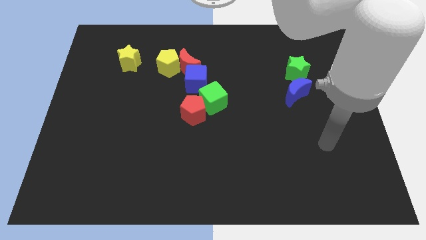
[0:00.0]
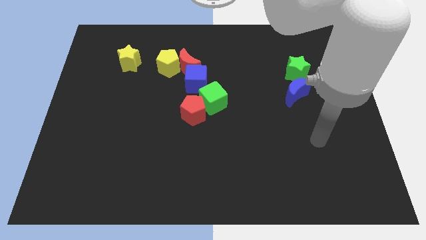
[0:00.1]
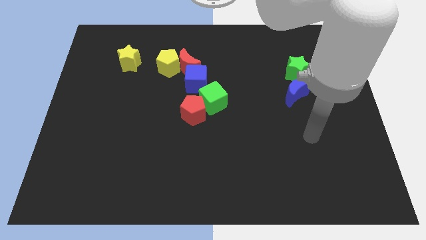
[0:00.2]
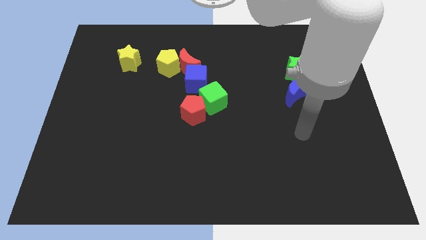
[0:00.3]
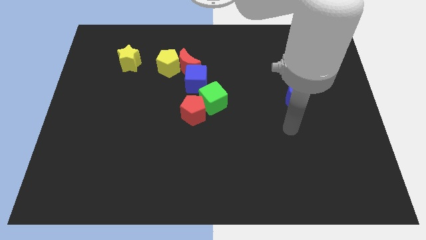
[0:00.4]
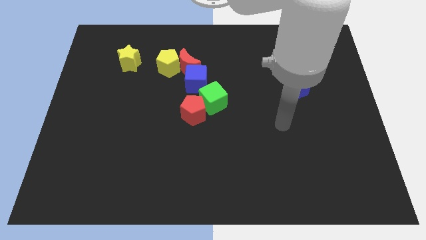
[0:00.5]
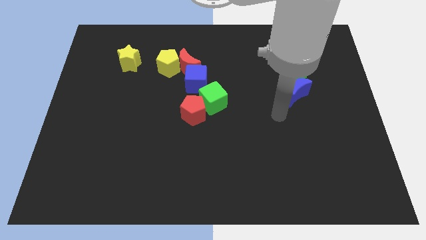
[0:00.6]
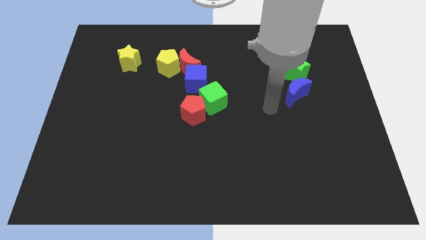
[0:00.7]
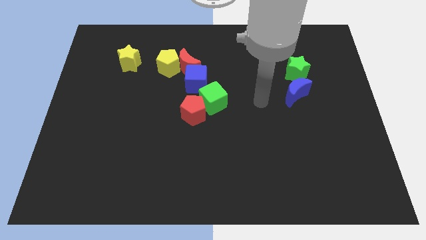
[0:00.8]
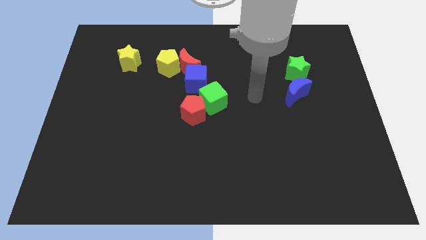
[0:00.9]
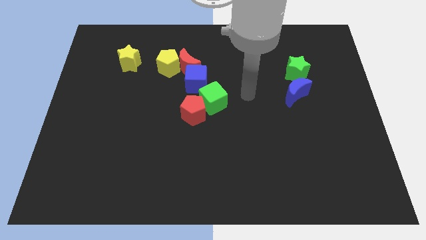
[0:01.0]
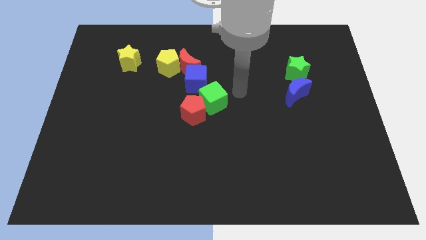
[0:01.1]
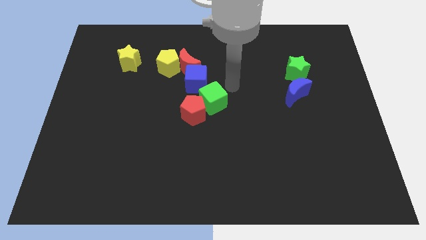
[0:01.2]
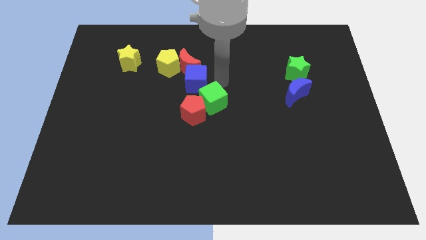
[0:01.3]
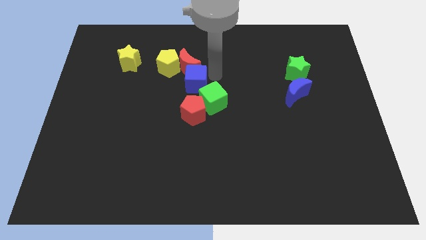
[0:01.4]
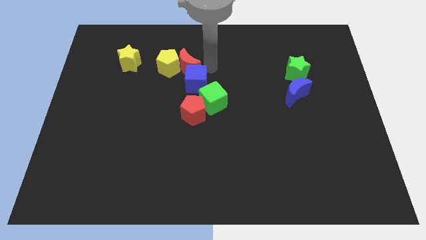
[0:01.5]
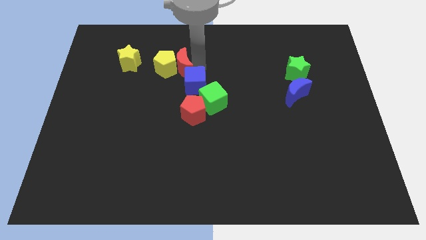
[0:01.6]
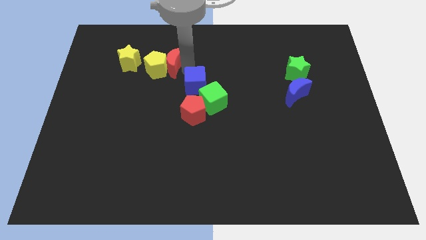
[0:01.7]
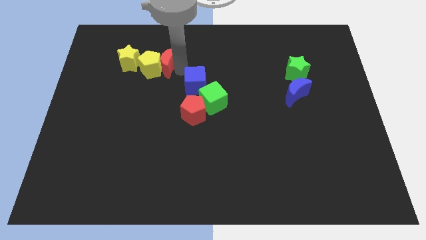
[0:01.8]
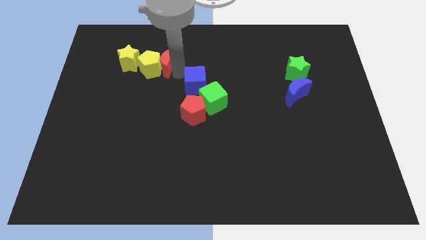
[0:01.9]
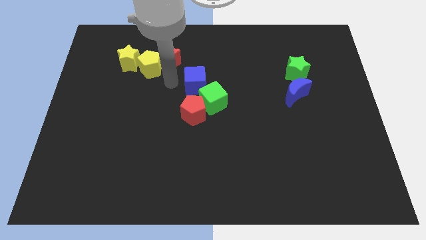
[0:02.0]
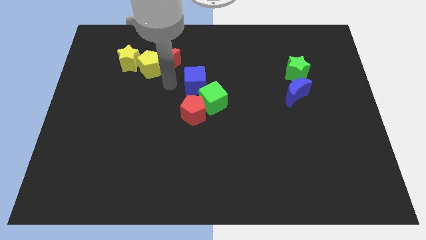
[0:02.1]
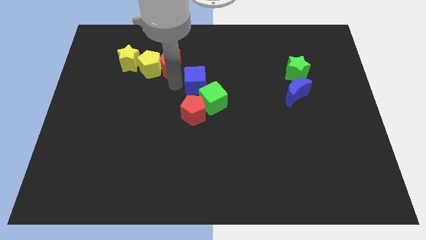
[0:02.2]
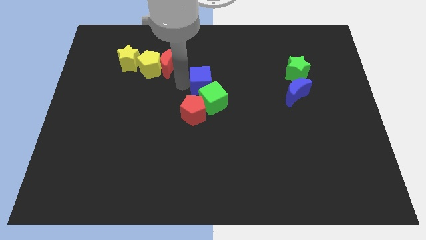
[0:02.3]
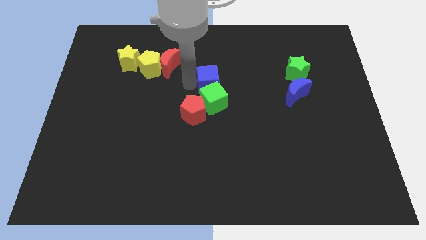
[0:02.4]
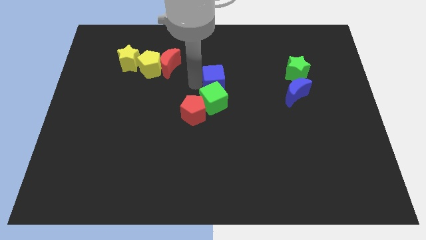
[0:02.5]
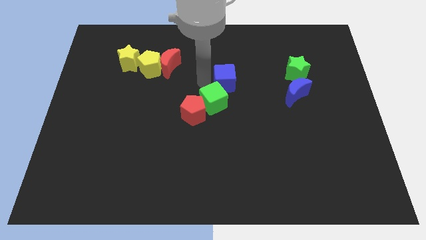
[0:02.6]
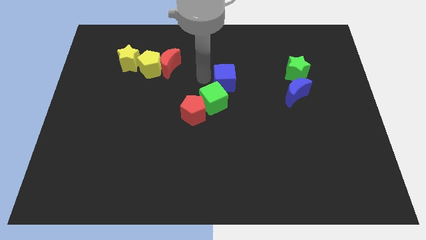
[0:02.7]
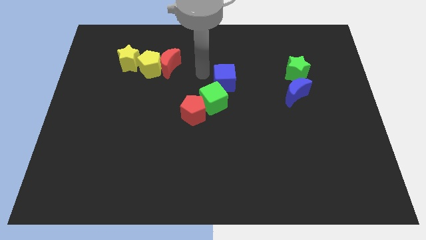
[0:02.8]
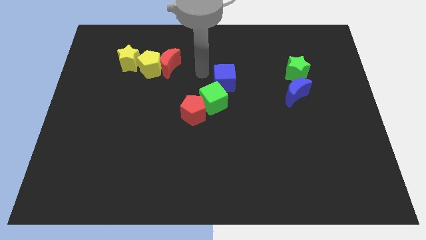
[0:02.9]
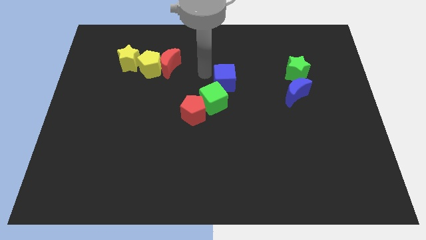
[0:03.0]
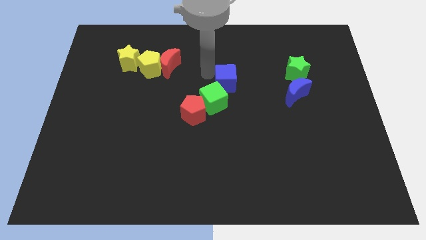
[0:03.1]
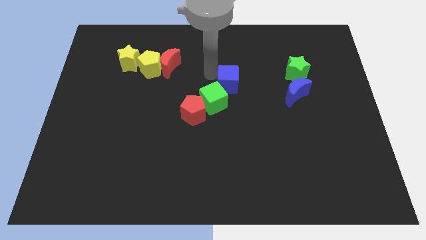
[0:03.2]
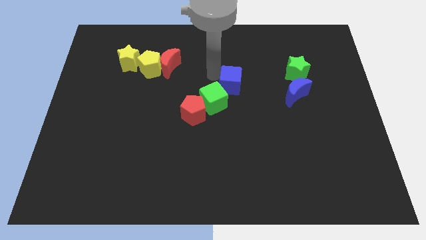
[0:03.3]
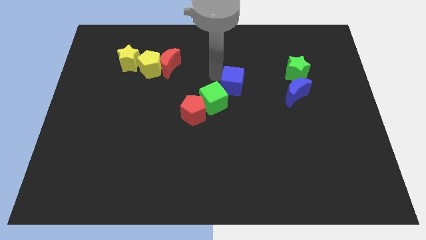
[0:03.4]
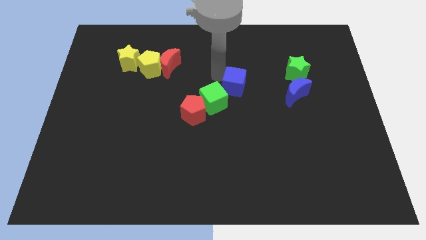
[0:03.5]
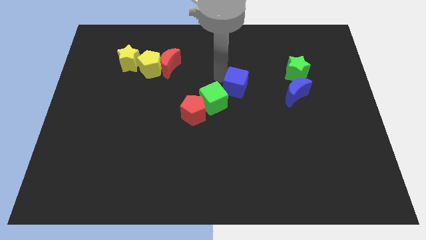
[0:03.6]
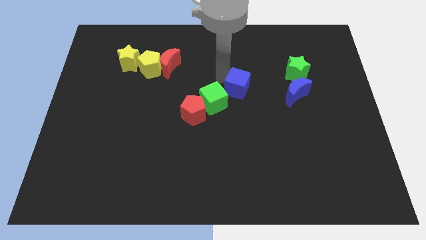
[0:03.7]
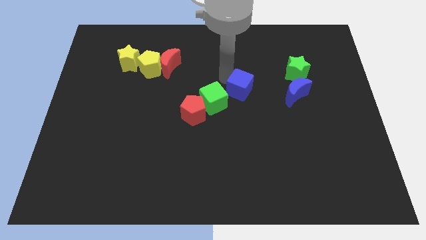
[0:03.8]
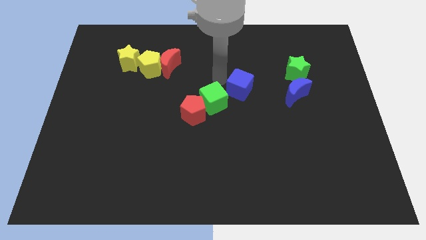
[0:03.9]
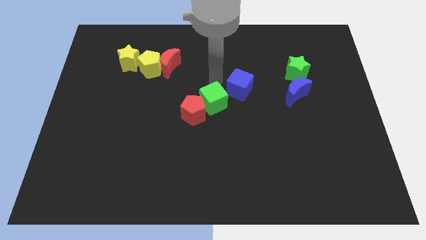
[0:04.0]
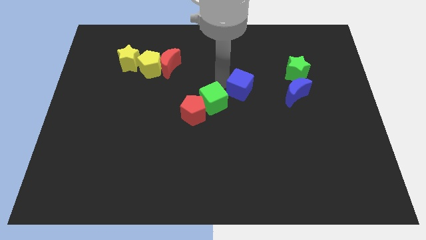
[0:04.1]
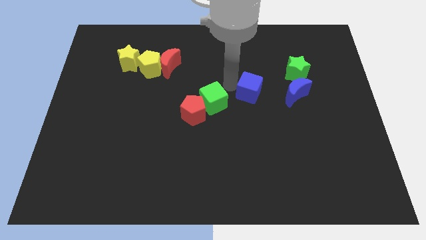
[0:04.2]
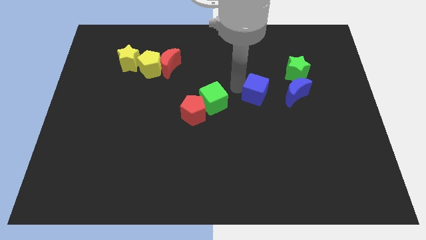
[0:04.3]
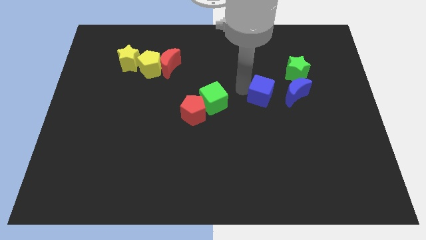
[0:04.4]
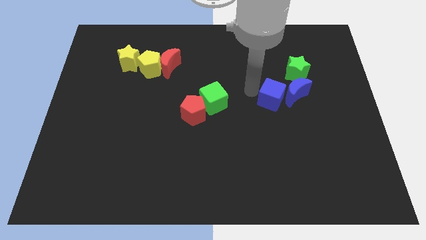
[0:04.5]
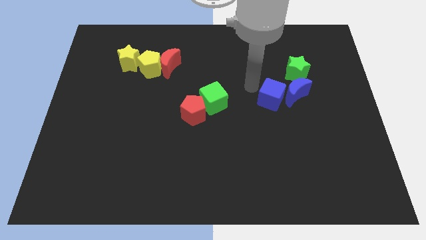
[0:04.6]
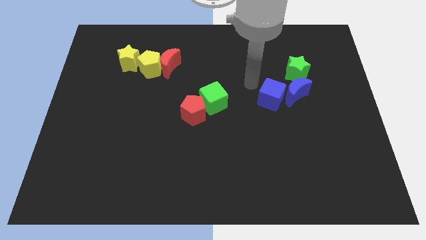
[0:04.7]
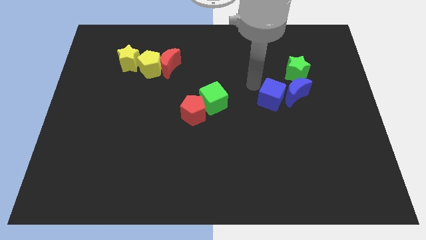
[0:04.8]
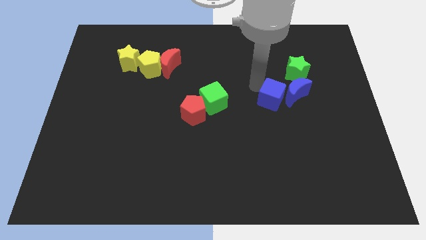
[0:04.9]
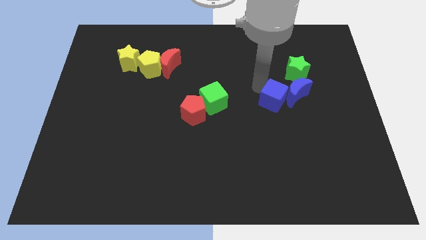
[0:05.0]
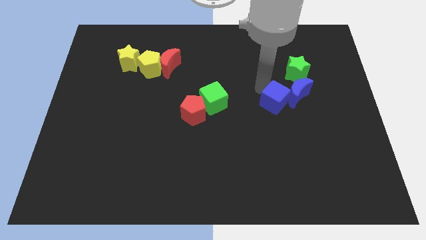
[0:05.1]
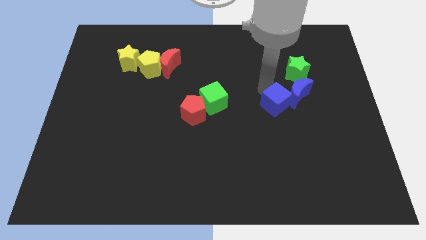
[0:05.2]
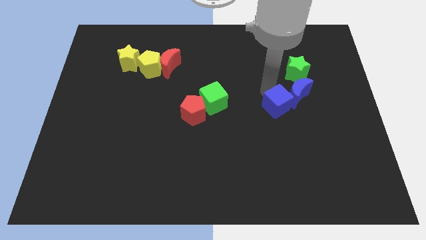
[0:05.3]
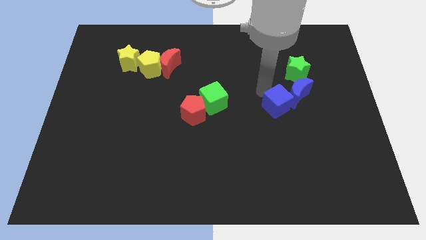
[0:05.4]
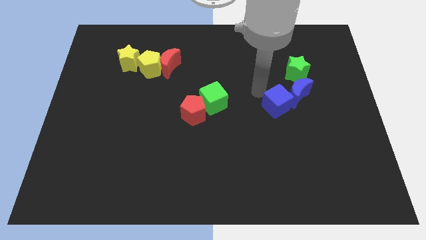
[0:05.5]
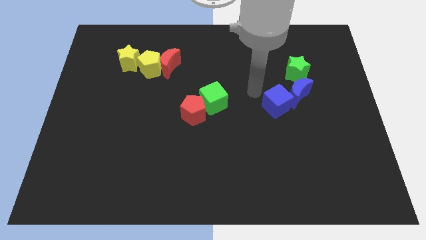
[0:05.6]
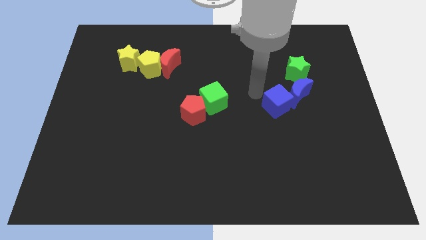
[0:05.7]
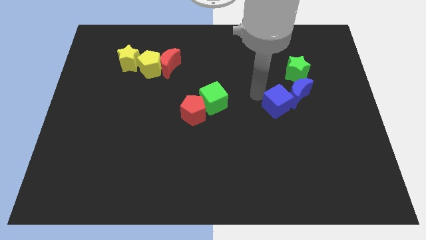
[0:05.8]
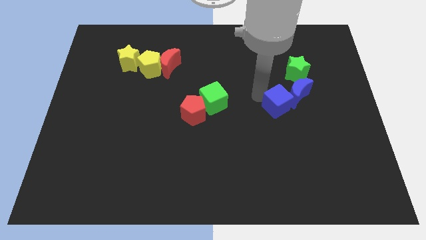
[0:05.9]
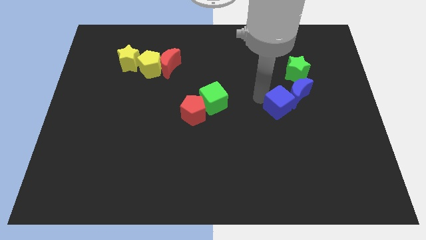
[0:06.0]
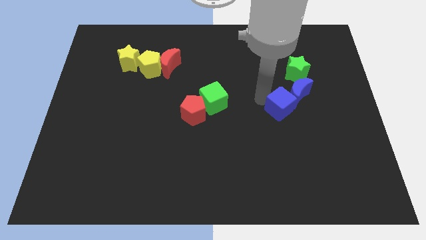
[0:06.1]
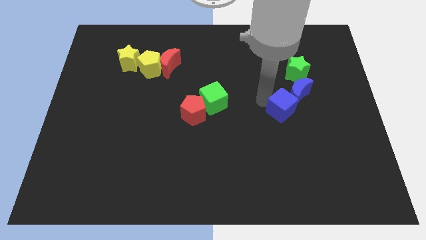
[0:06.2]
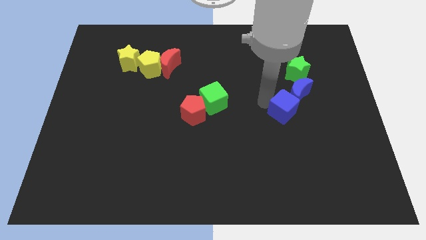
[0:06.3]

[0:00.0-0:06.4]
put the blue cube below the green star
